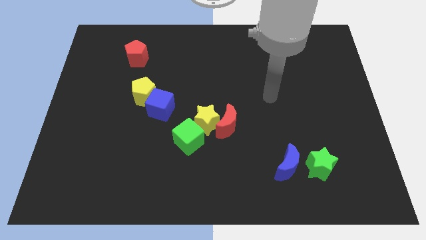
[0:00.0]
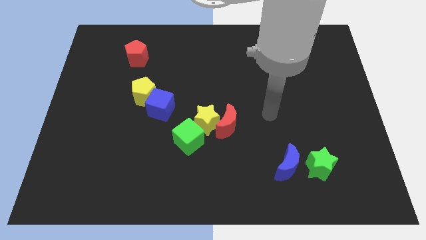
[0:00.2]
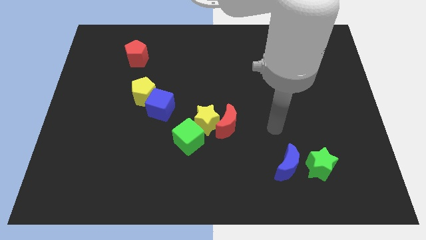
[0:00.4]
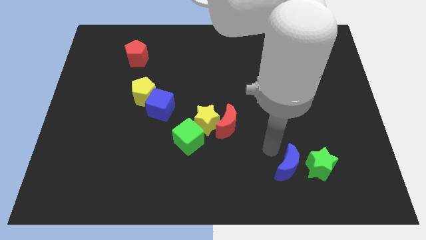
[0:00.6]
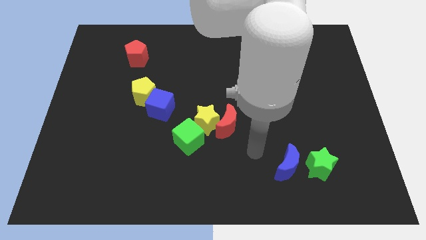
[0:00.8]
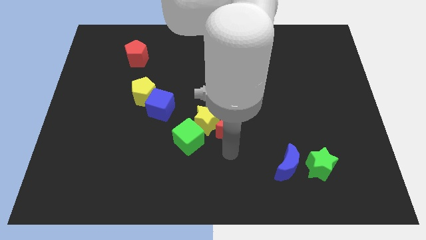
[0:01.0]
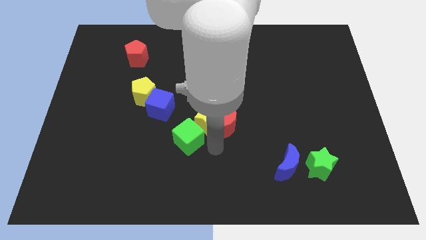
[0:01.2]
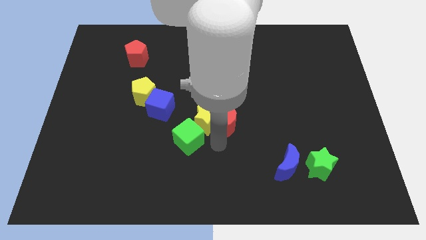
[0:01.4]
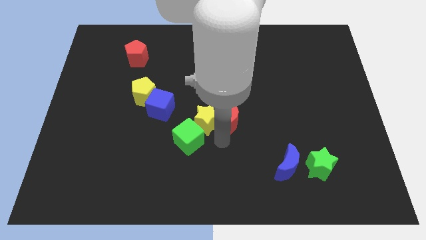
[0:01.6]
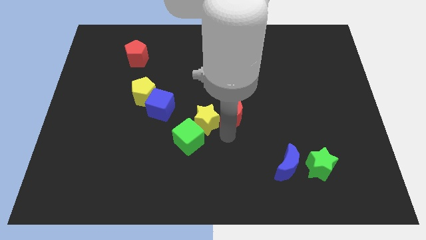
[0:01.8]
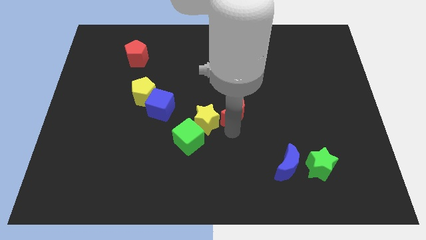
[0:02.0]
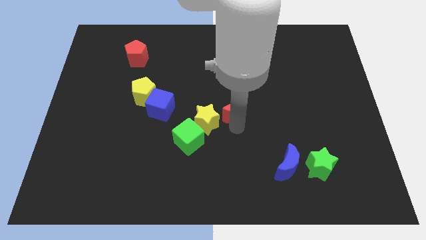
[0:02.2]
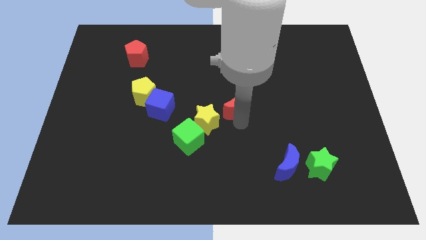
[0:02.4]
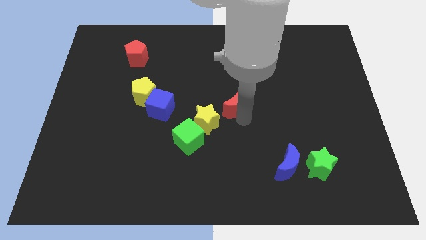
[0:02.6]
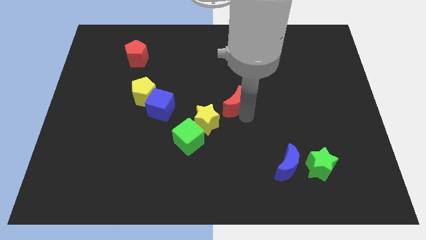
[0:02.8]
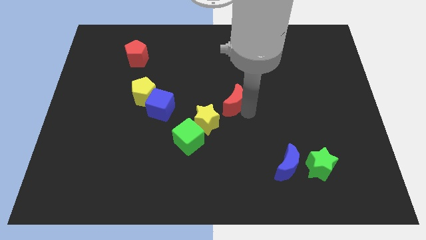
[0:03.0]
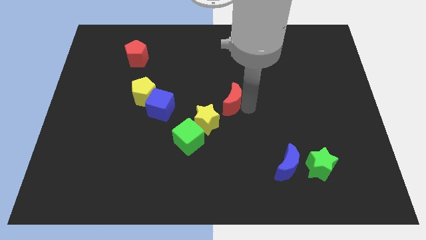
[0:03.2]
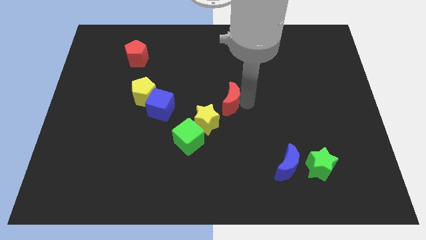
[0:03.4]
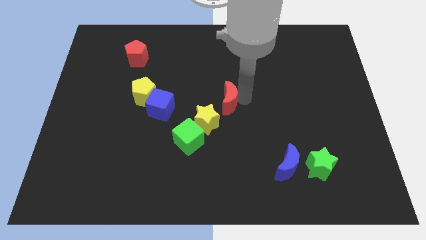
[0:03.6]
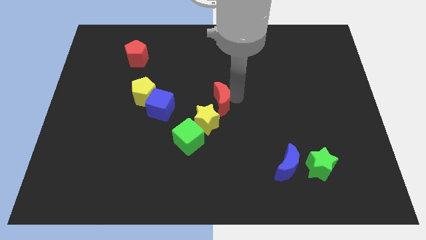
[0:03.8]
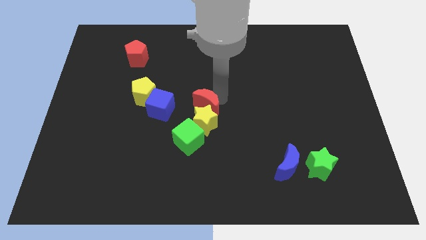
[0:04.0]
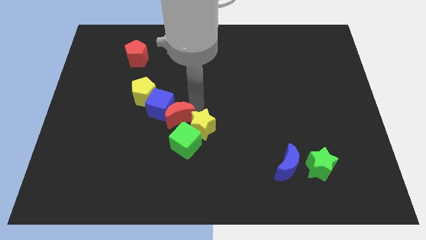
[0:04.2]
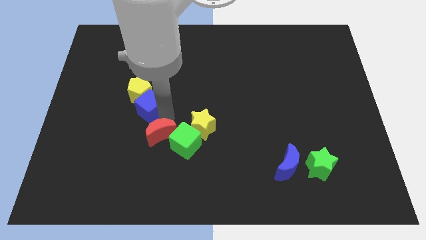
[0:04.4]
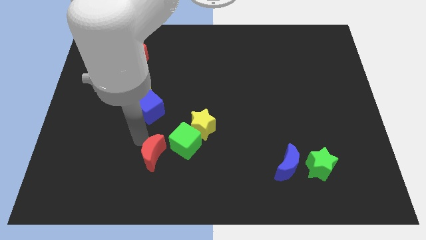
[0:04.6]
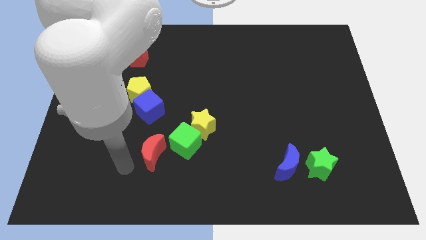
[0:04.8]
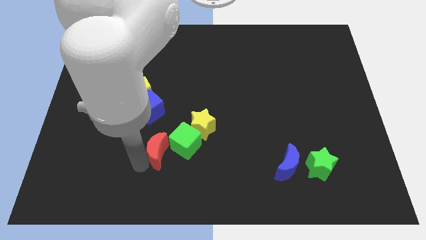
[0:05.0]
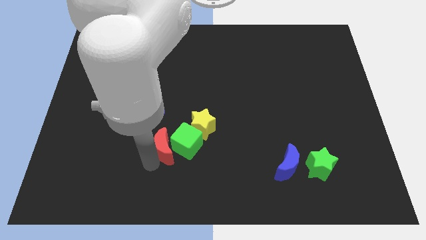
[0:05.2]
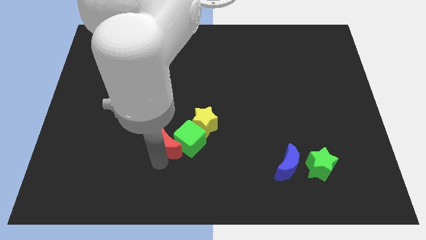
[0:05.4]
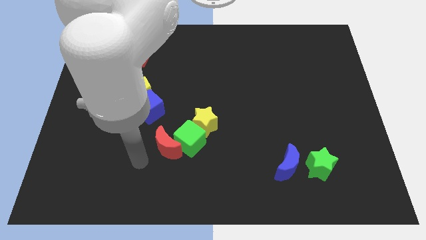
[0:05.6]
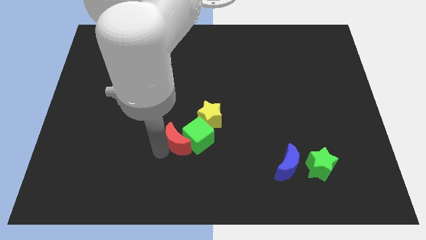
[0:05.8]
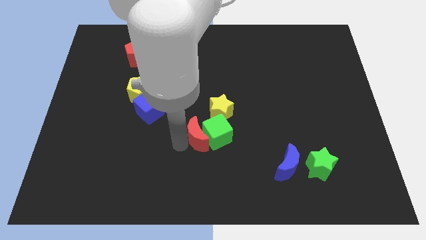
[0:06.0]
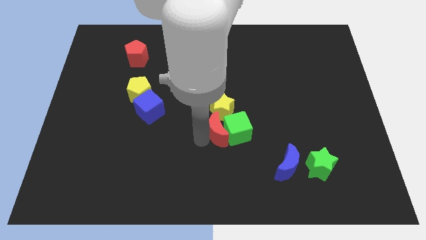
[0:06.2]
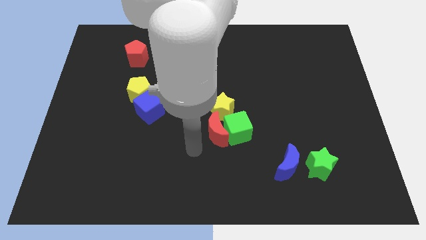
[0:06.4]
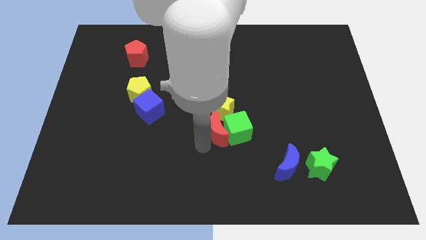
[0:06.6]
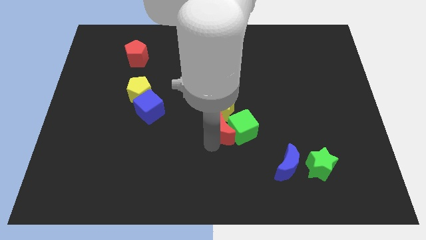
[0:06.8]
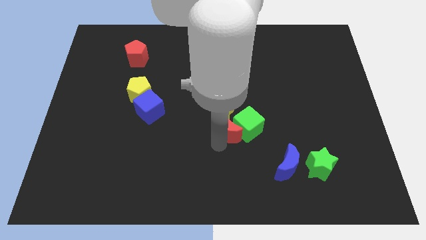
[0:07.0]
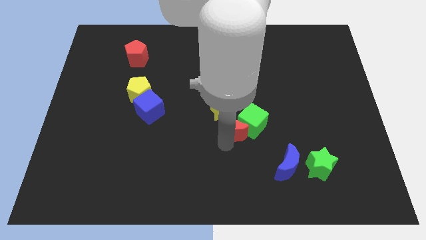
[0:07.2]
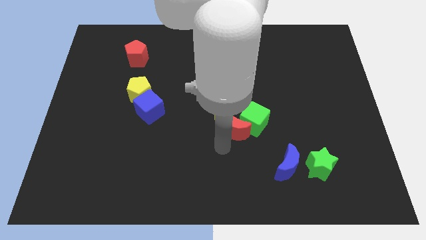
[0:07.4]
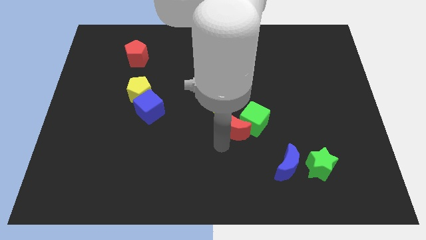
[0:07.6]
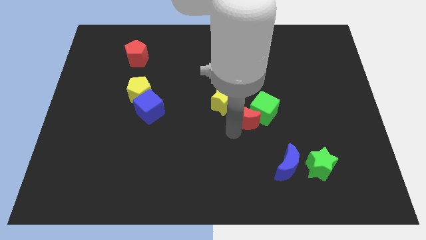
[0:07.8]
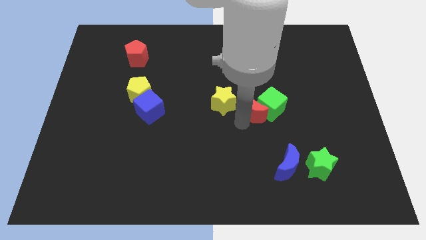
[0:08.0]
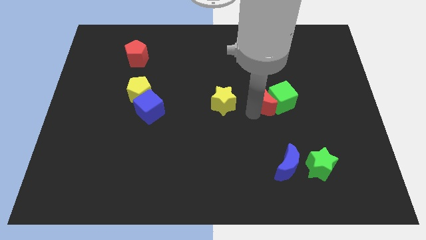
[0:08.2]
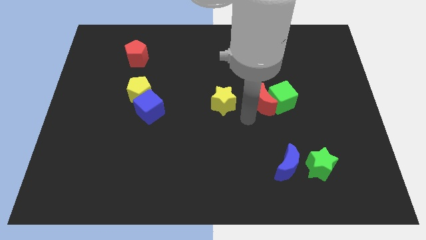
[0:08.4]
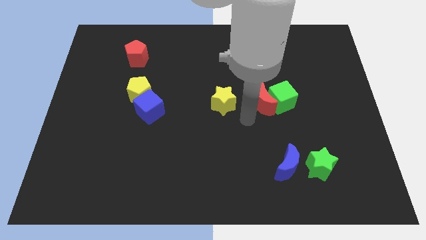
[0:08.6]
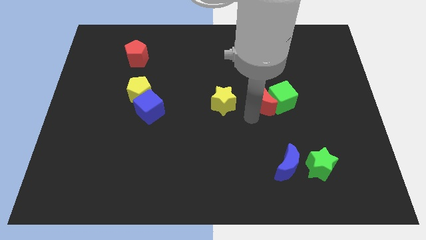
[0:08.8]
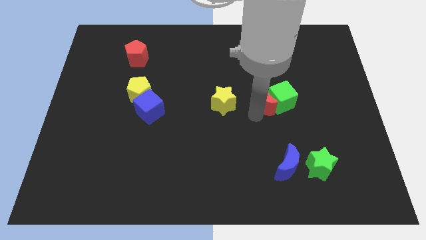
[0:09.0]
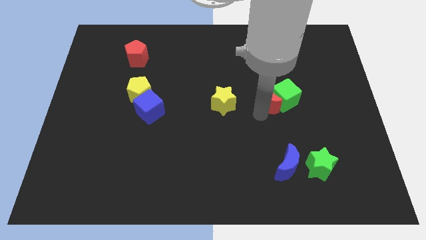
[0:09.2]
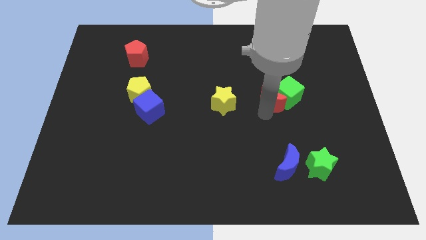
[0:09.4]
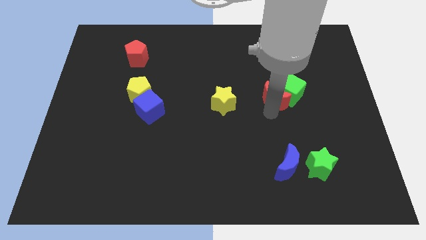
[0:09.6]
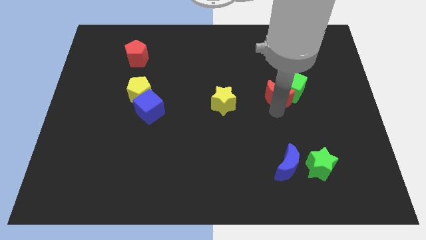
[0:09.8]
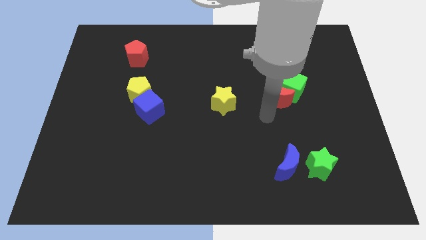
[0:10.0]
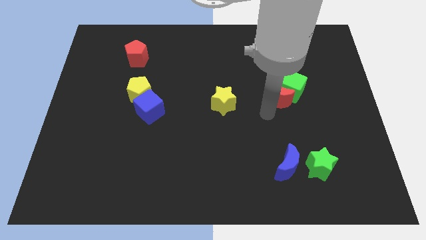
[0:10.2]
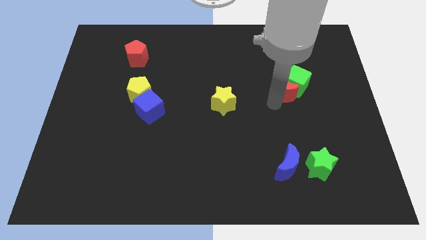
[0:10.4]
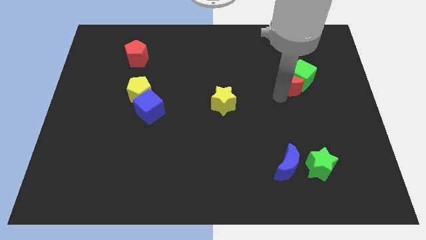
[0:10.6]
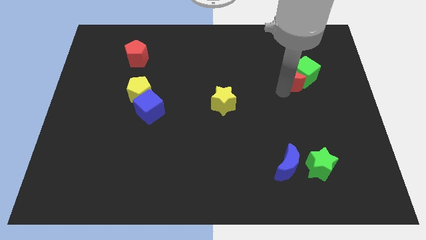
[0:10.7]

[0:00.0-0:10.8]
slide the red moon upwards and then right

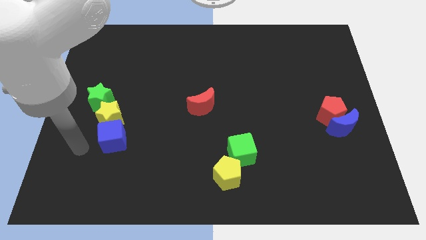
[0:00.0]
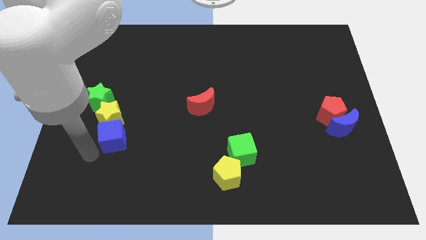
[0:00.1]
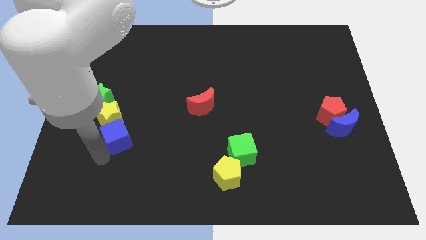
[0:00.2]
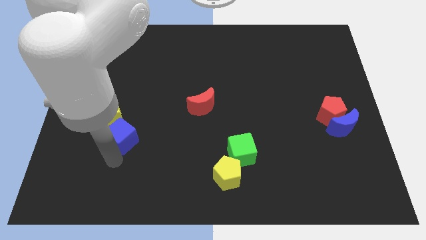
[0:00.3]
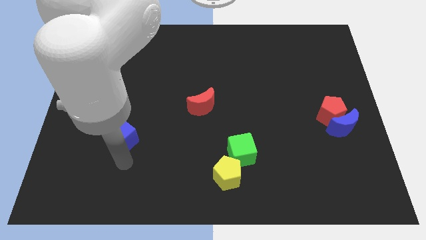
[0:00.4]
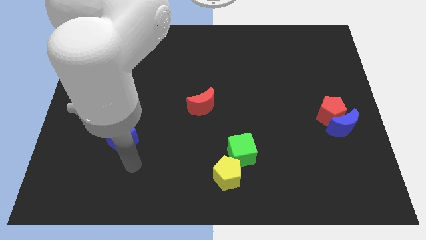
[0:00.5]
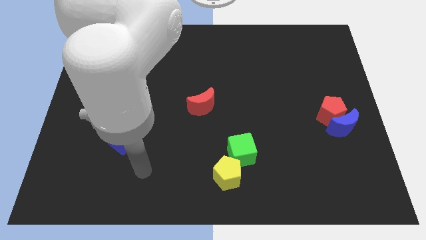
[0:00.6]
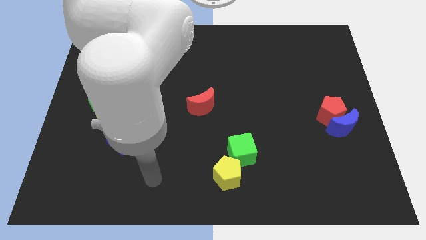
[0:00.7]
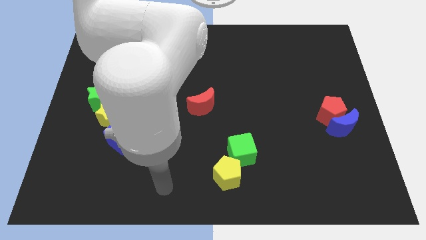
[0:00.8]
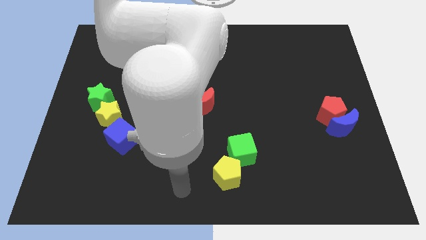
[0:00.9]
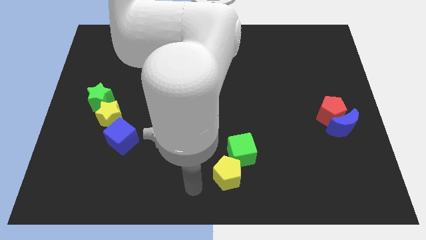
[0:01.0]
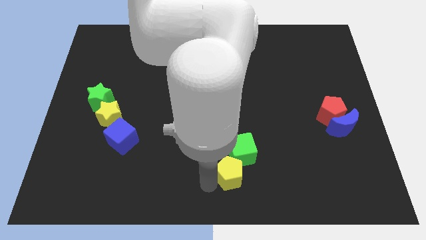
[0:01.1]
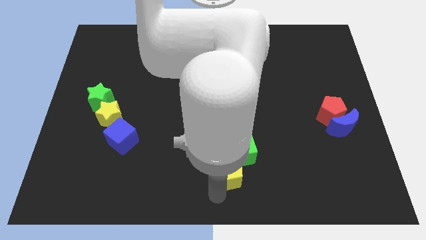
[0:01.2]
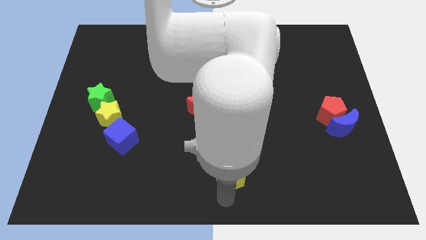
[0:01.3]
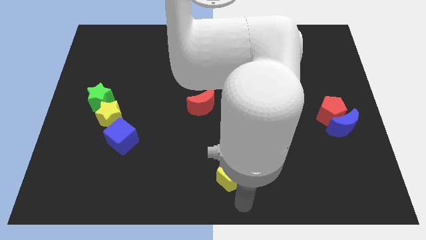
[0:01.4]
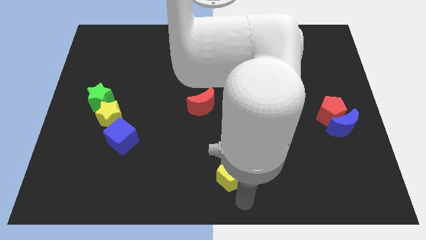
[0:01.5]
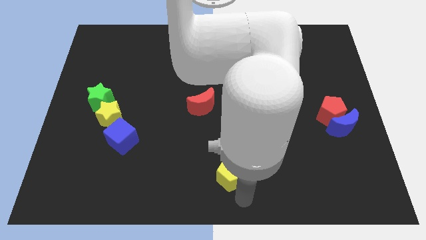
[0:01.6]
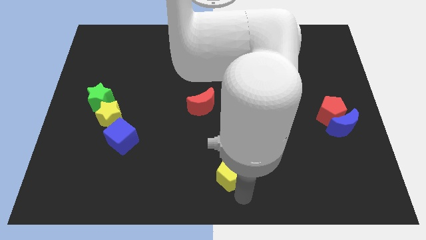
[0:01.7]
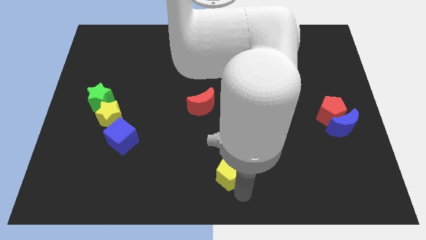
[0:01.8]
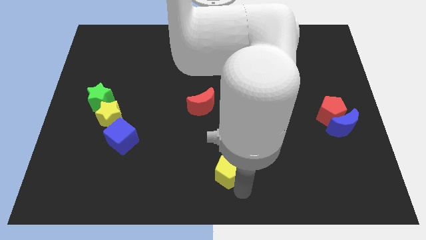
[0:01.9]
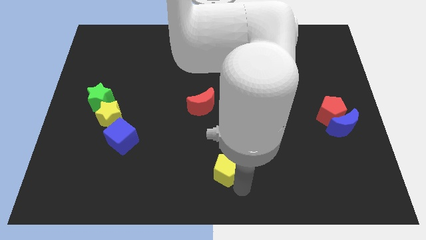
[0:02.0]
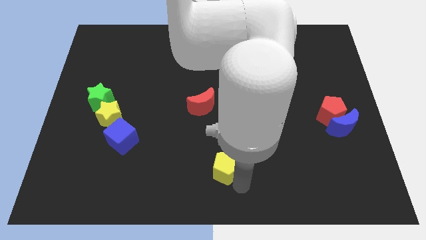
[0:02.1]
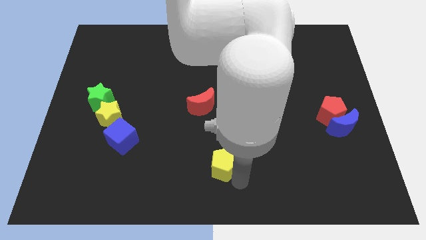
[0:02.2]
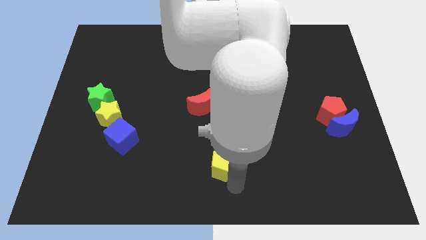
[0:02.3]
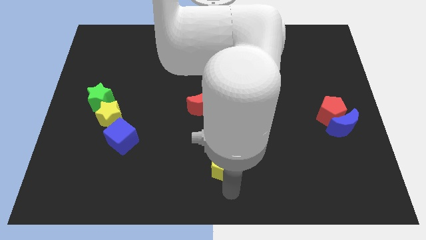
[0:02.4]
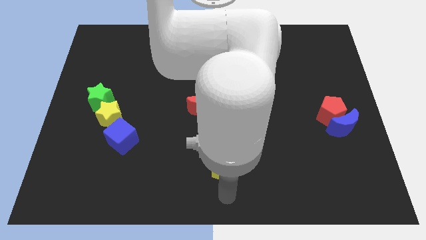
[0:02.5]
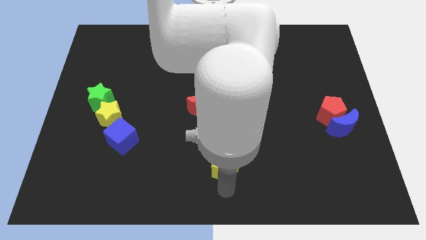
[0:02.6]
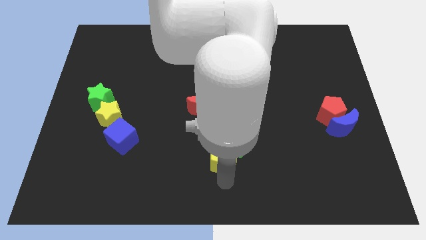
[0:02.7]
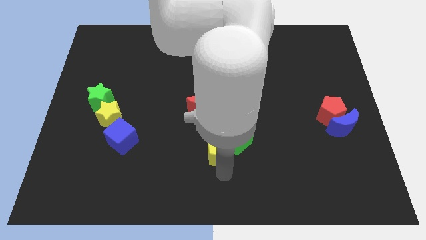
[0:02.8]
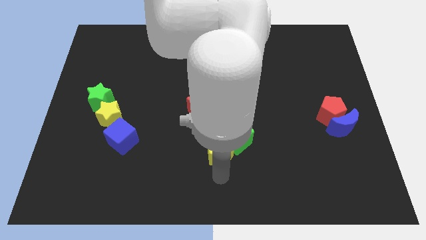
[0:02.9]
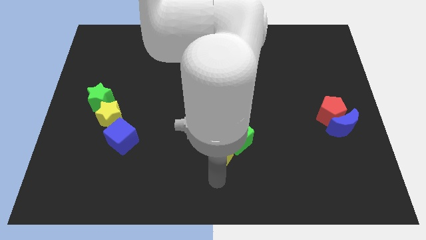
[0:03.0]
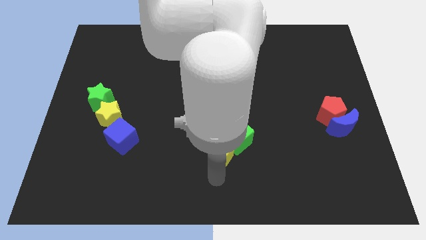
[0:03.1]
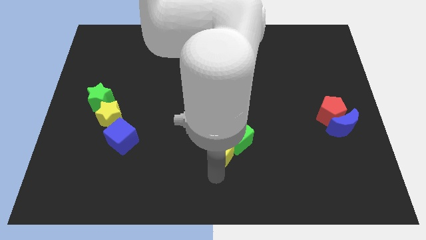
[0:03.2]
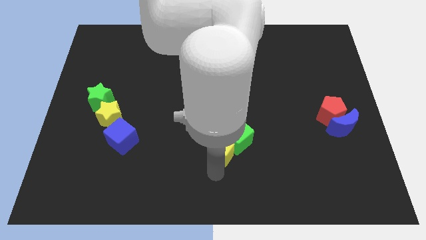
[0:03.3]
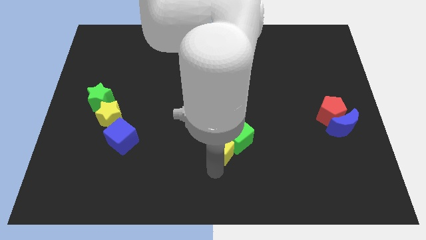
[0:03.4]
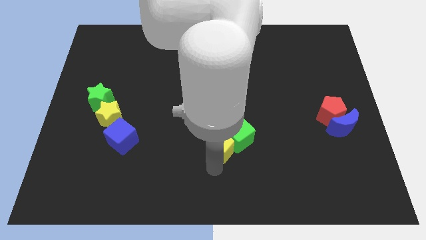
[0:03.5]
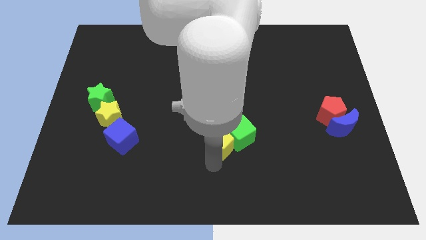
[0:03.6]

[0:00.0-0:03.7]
move the yellow pentagon up slightly
